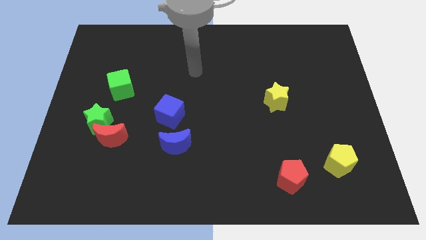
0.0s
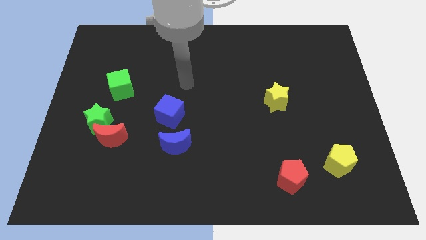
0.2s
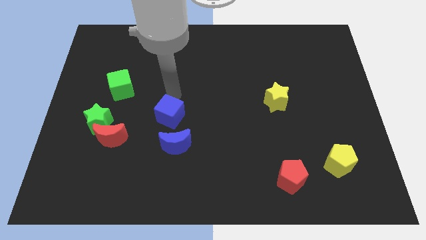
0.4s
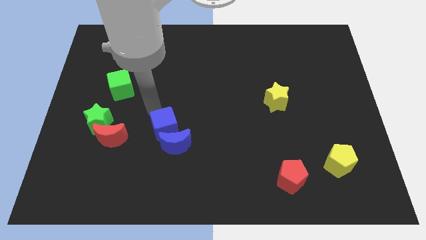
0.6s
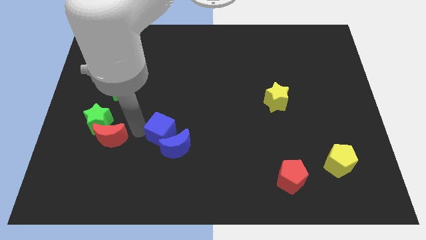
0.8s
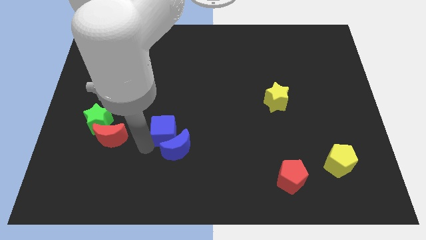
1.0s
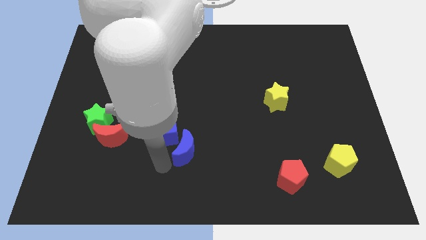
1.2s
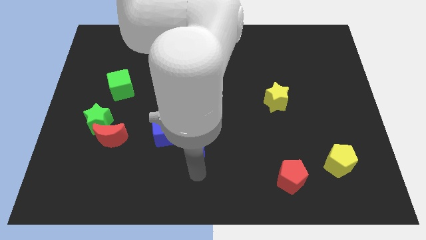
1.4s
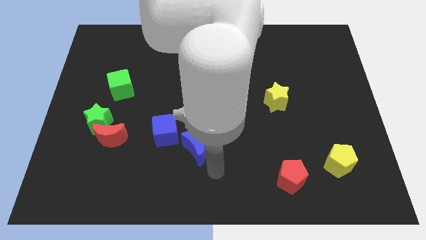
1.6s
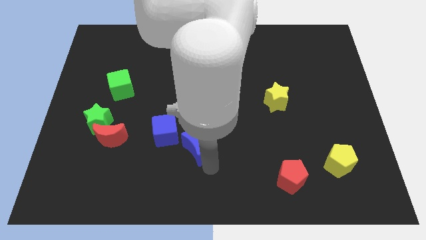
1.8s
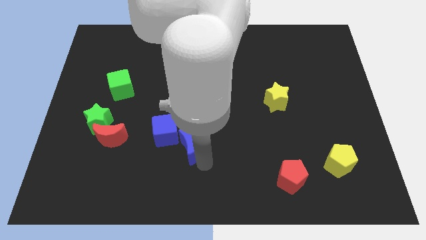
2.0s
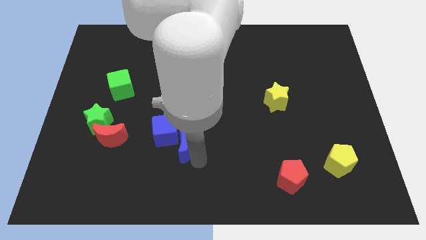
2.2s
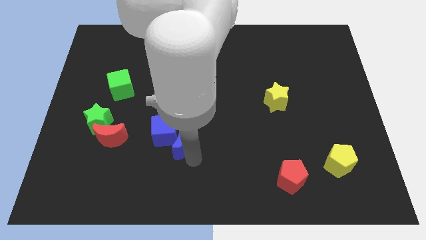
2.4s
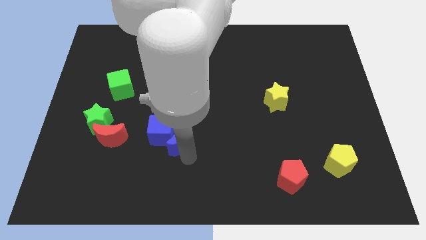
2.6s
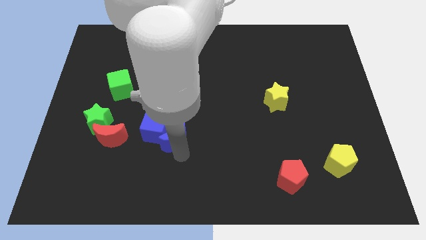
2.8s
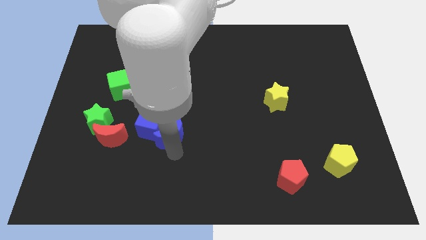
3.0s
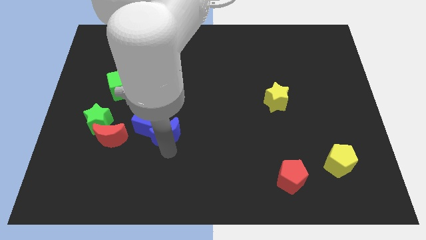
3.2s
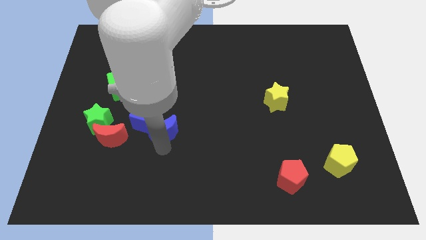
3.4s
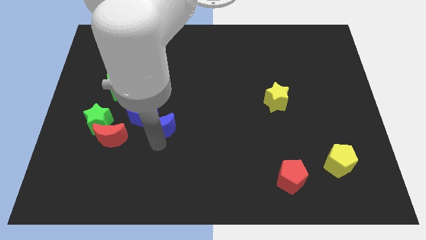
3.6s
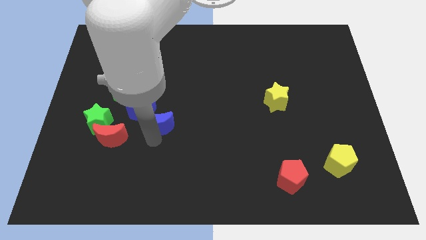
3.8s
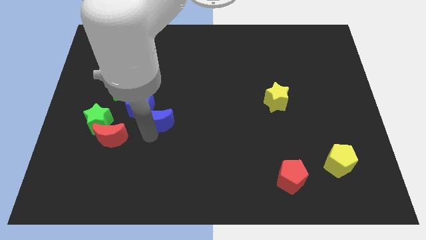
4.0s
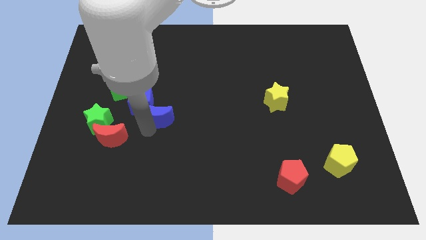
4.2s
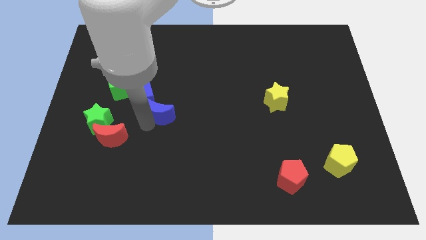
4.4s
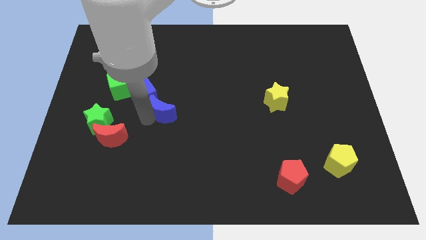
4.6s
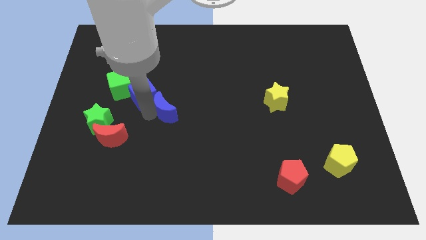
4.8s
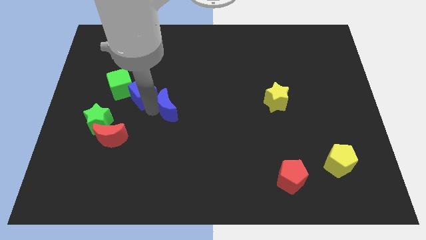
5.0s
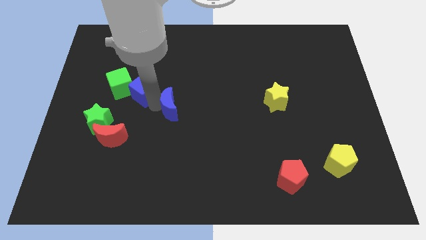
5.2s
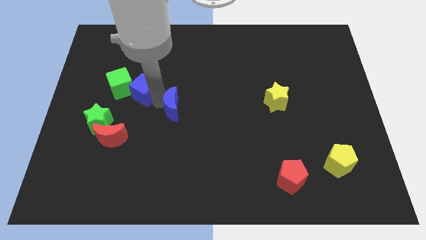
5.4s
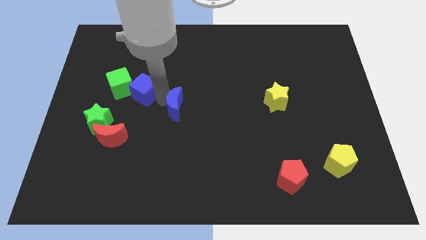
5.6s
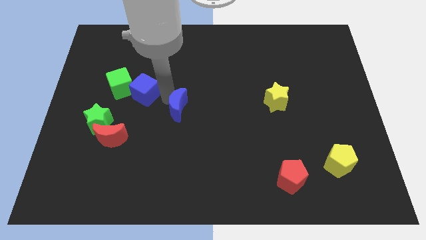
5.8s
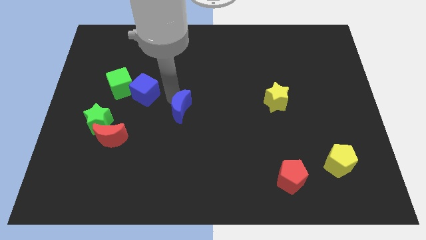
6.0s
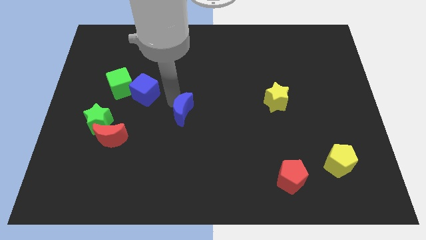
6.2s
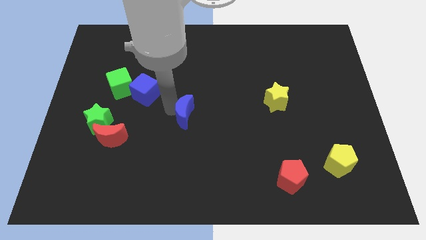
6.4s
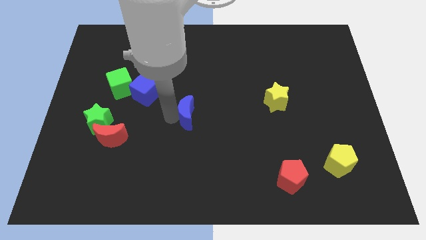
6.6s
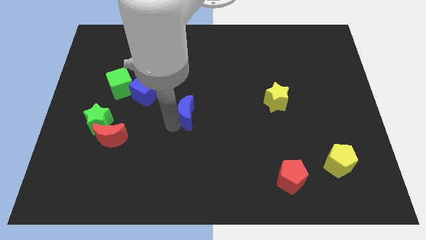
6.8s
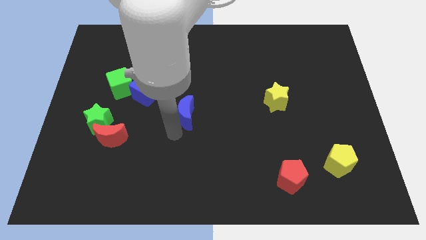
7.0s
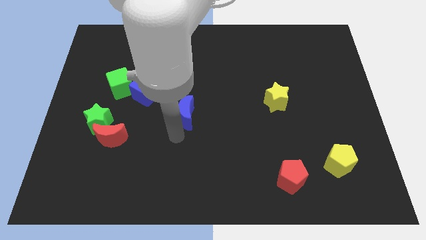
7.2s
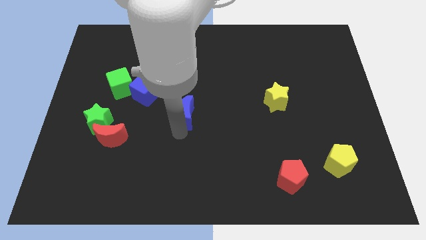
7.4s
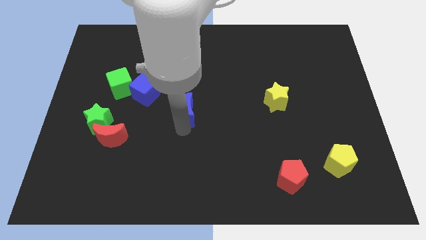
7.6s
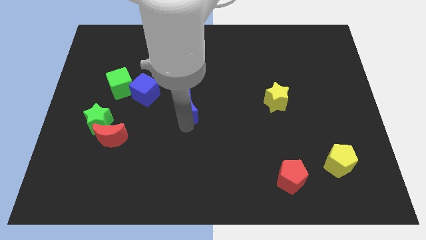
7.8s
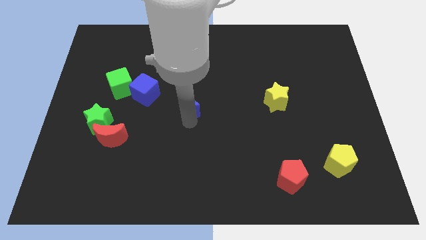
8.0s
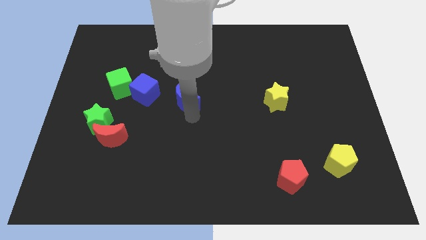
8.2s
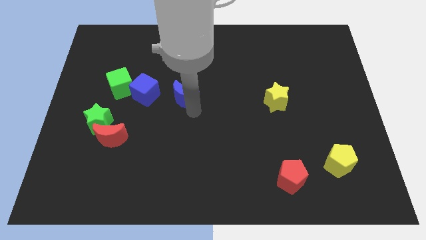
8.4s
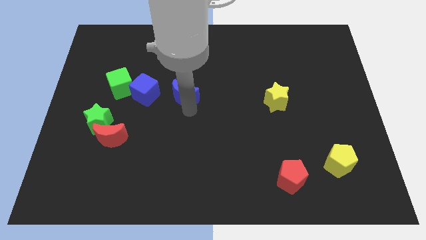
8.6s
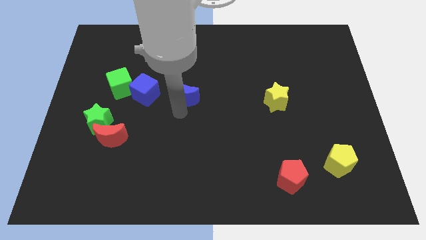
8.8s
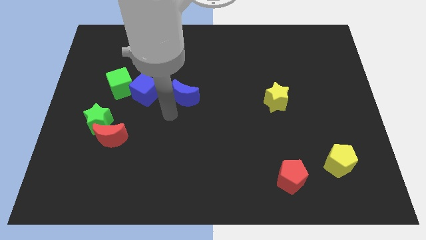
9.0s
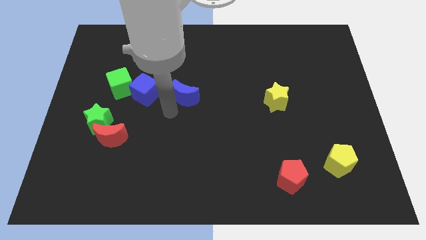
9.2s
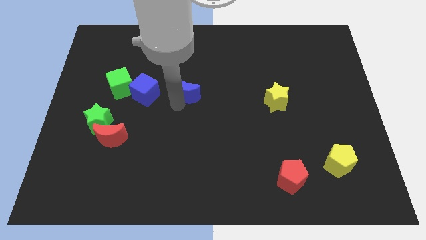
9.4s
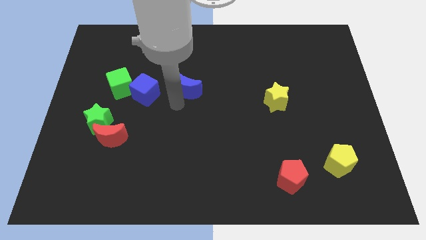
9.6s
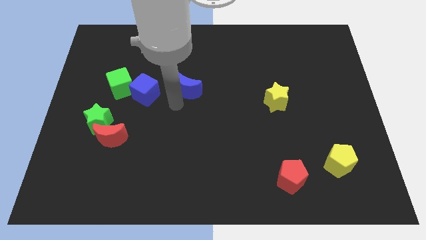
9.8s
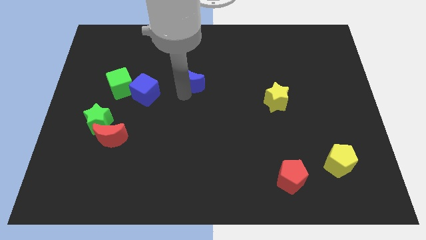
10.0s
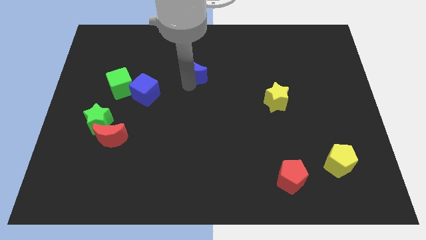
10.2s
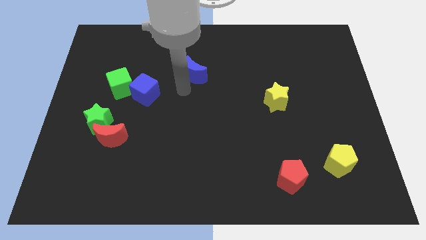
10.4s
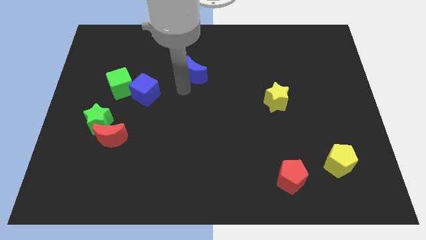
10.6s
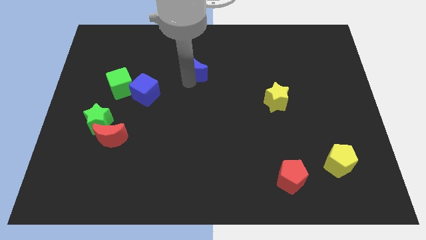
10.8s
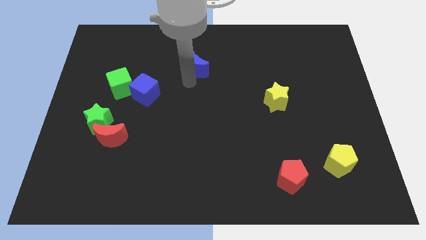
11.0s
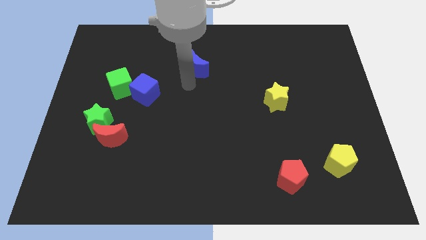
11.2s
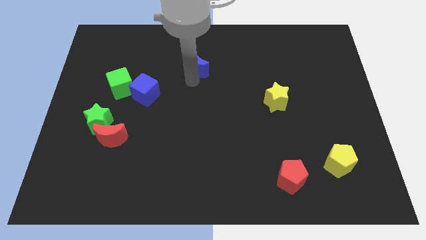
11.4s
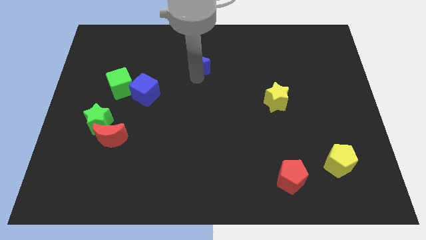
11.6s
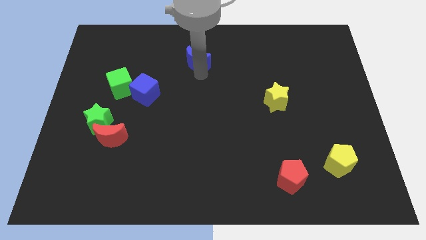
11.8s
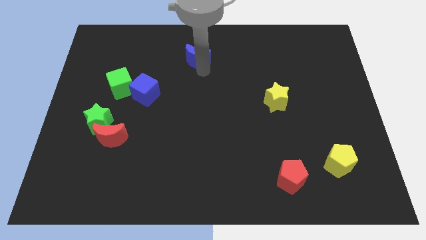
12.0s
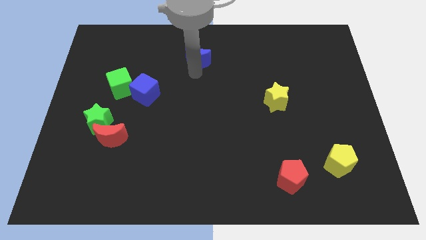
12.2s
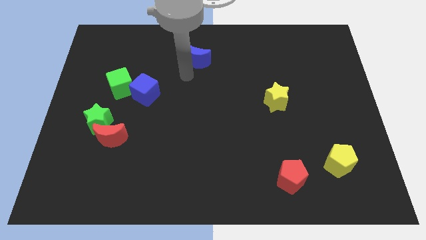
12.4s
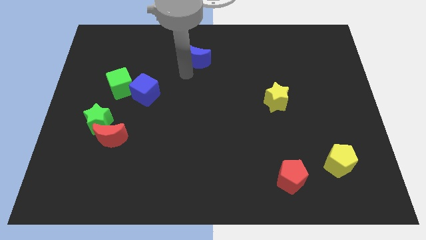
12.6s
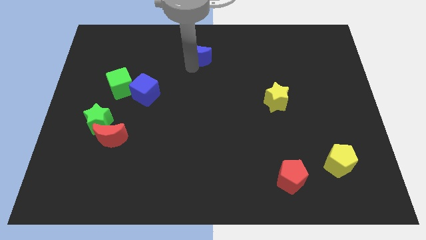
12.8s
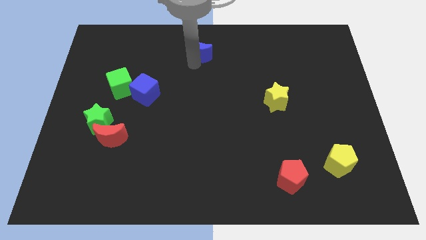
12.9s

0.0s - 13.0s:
put the blue moon to the towards your base
